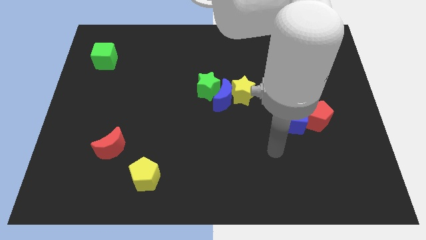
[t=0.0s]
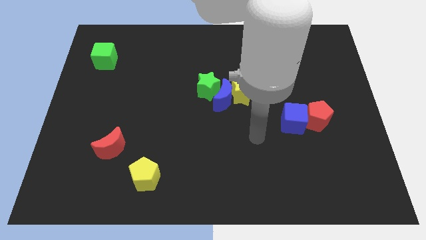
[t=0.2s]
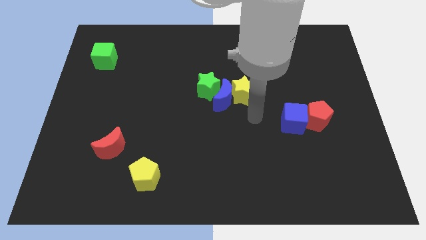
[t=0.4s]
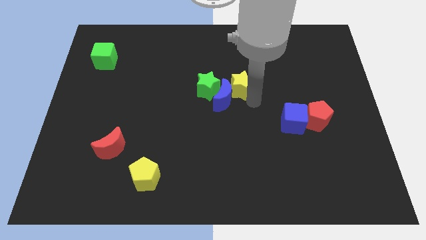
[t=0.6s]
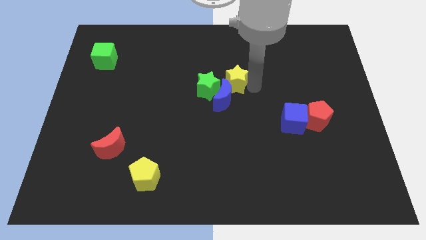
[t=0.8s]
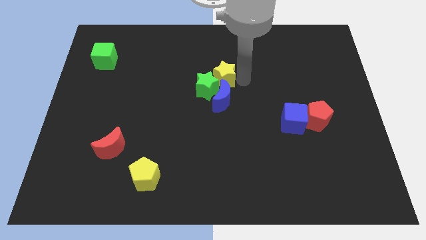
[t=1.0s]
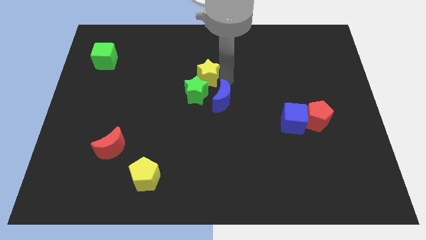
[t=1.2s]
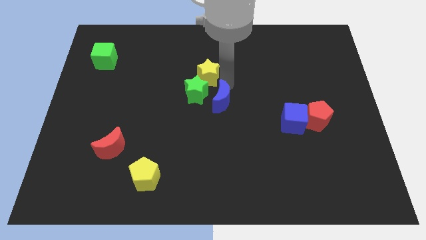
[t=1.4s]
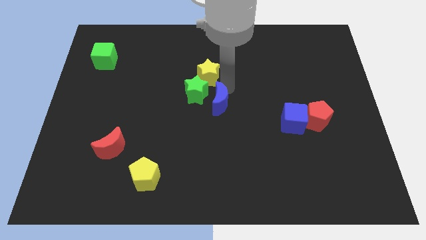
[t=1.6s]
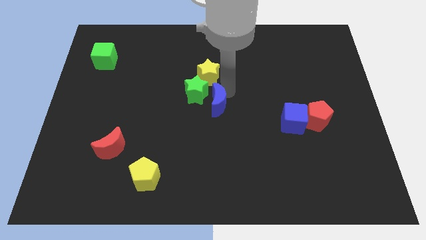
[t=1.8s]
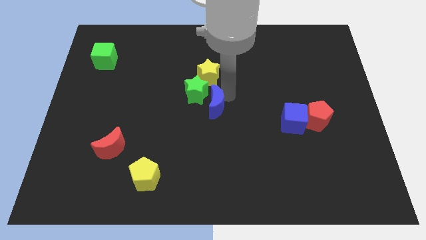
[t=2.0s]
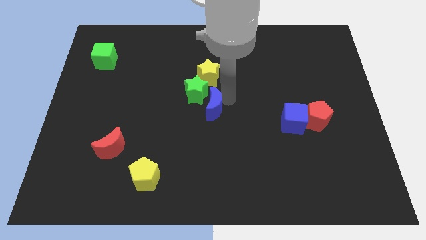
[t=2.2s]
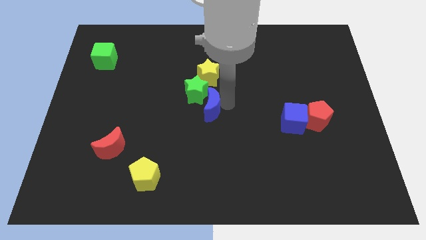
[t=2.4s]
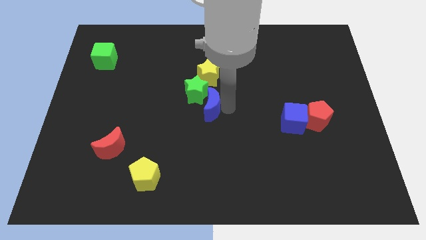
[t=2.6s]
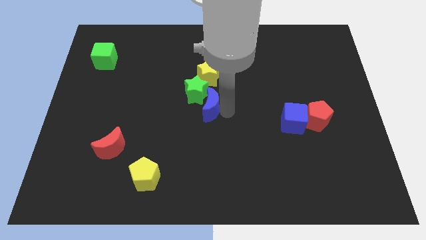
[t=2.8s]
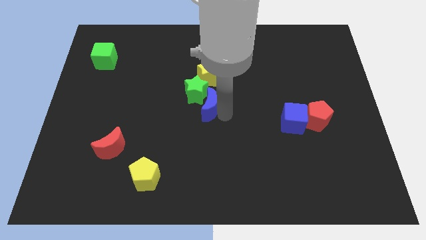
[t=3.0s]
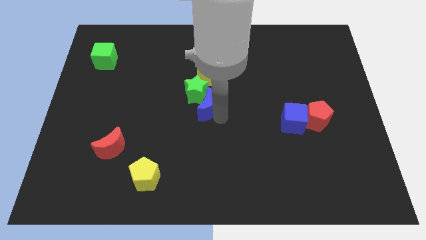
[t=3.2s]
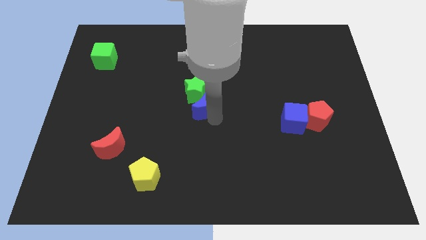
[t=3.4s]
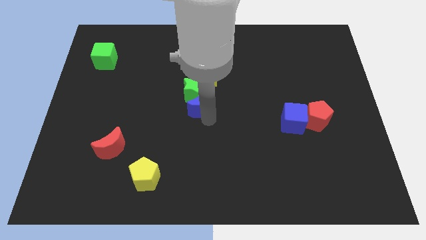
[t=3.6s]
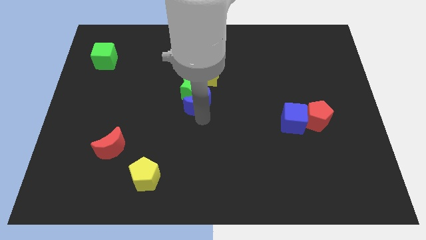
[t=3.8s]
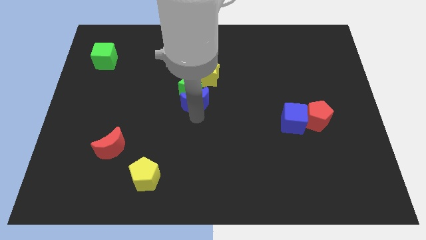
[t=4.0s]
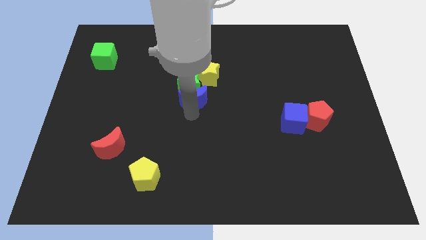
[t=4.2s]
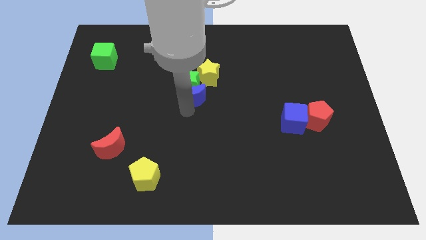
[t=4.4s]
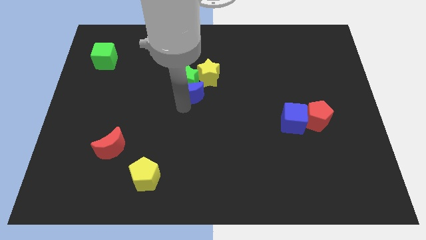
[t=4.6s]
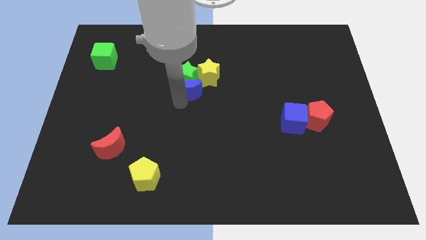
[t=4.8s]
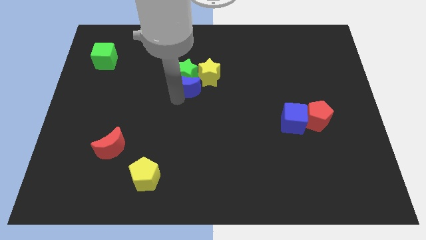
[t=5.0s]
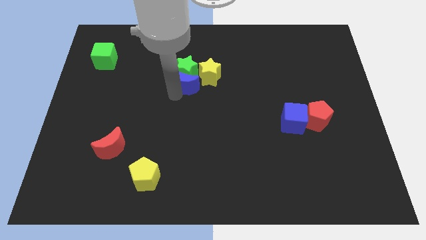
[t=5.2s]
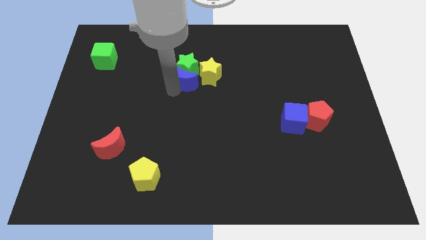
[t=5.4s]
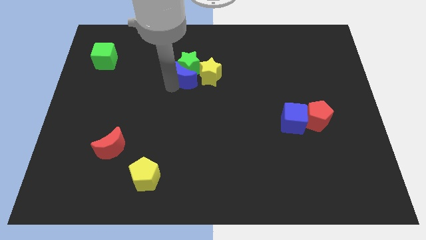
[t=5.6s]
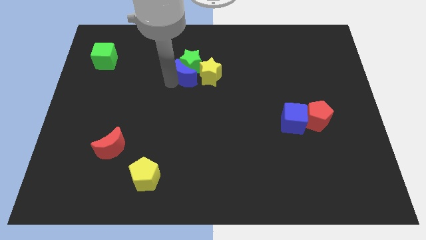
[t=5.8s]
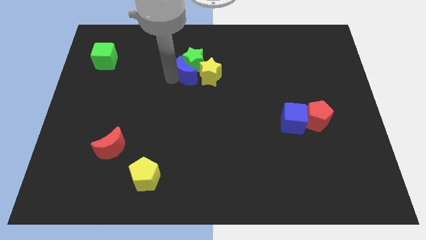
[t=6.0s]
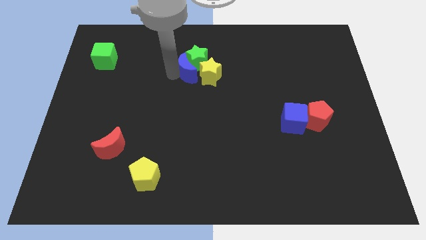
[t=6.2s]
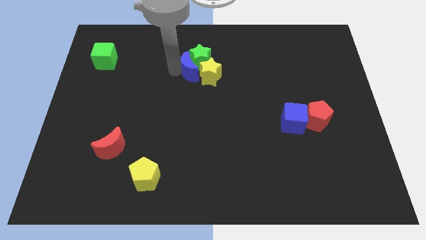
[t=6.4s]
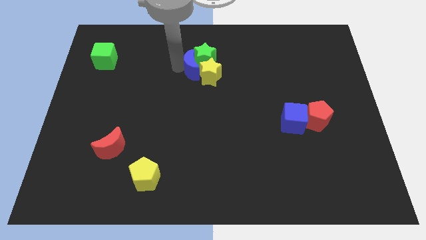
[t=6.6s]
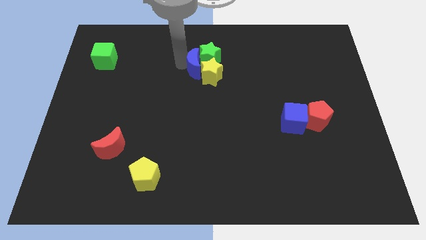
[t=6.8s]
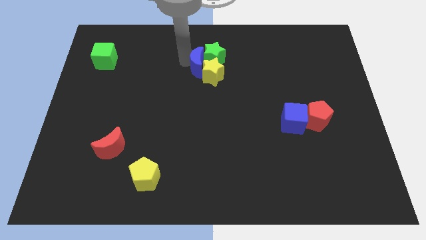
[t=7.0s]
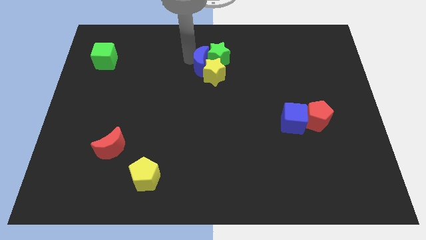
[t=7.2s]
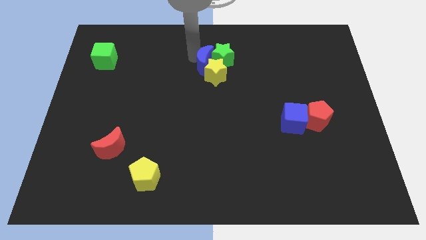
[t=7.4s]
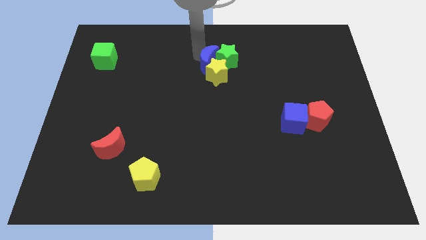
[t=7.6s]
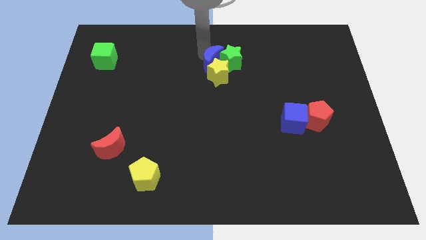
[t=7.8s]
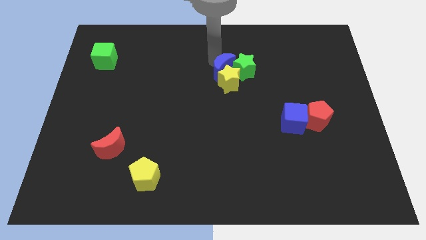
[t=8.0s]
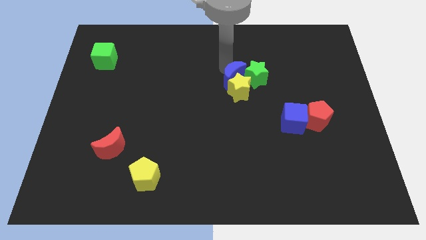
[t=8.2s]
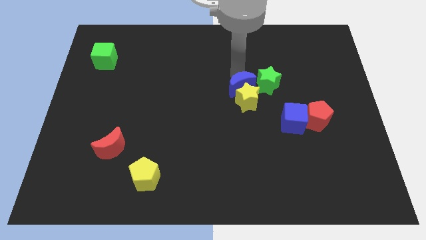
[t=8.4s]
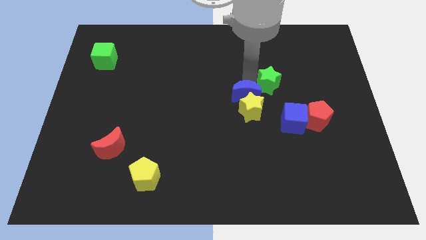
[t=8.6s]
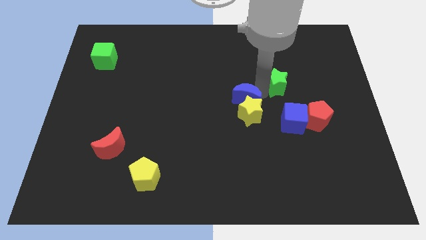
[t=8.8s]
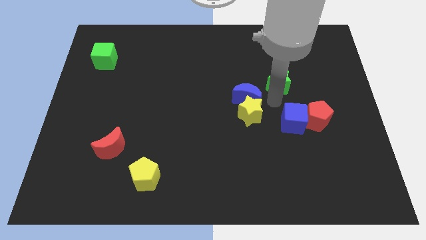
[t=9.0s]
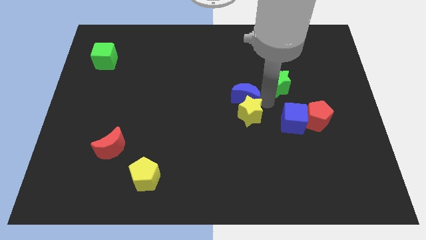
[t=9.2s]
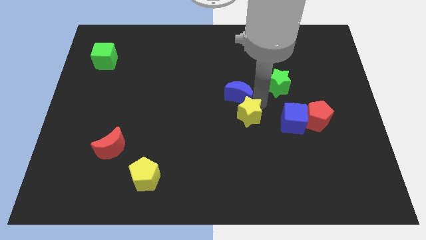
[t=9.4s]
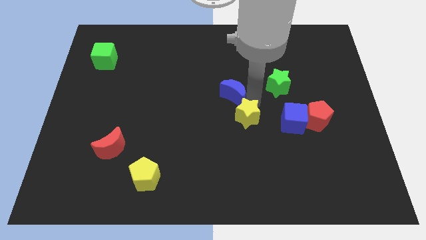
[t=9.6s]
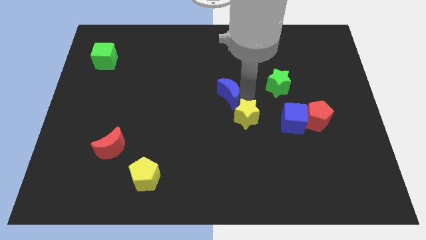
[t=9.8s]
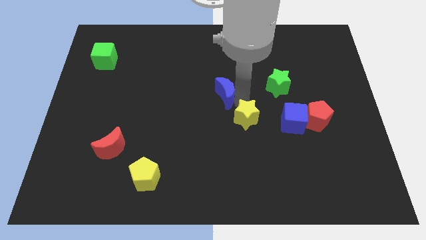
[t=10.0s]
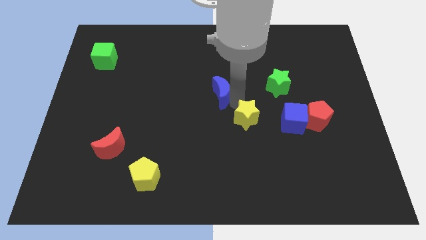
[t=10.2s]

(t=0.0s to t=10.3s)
pull the blue moon apart from the yellow star and green star

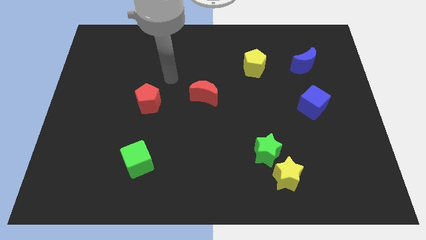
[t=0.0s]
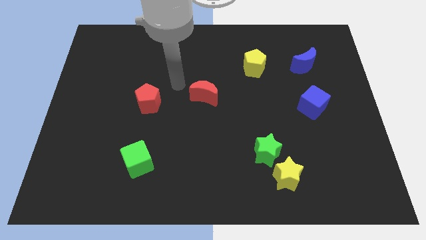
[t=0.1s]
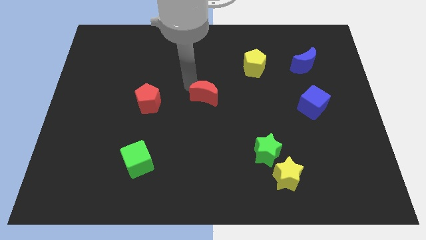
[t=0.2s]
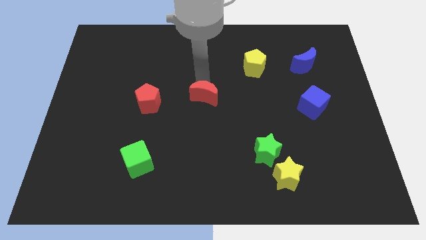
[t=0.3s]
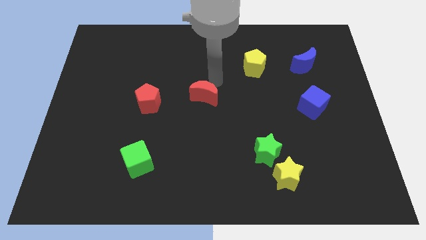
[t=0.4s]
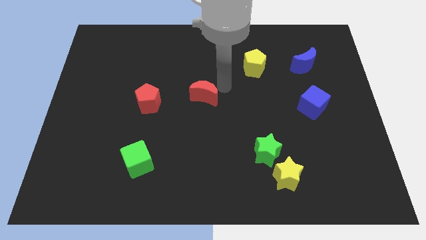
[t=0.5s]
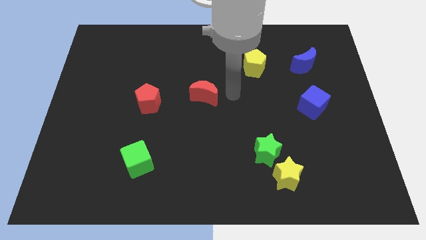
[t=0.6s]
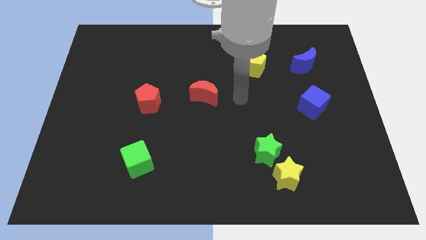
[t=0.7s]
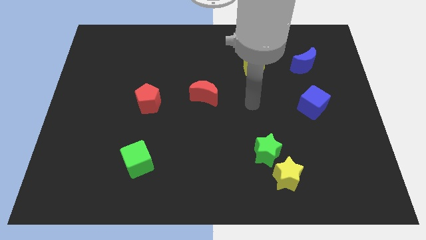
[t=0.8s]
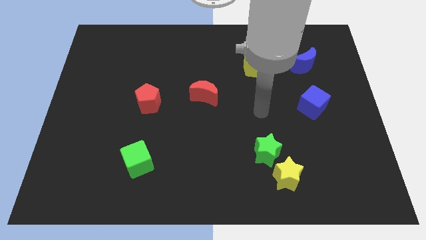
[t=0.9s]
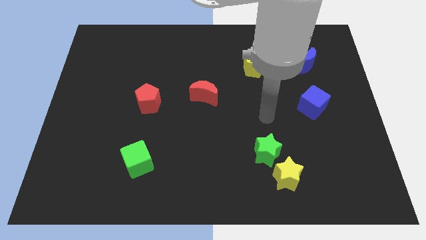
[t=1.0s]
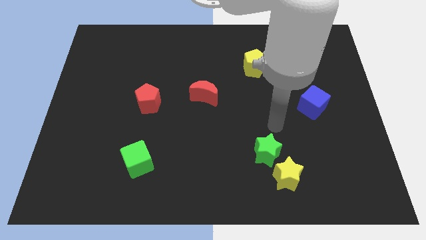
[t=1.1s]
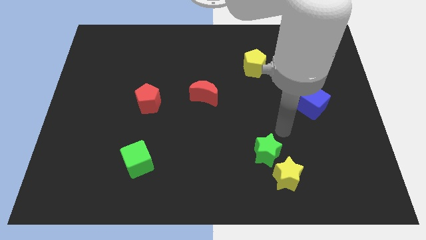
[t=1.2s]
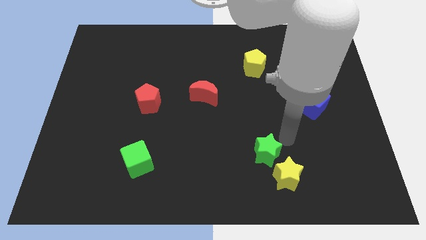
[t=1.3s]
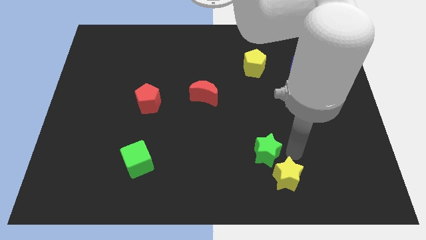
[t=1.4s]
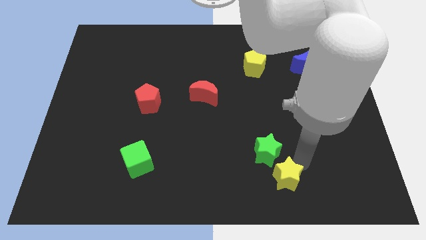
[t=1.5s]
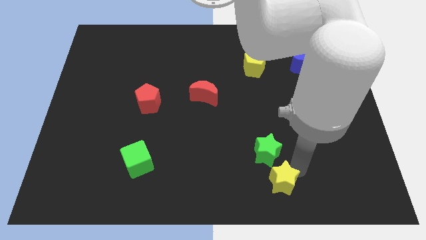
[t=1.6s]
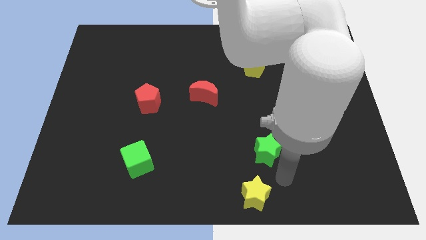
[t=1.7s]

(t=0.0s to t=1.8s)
pull the green star apart from the yellow star

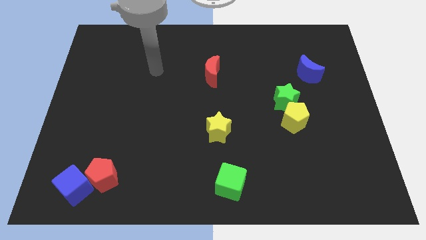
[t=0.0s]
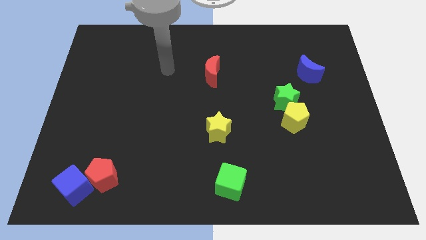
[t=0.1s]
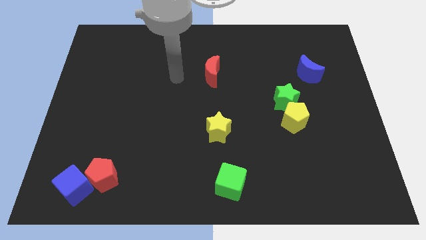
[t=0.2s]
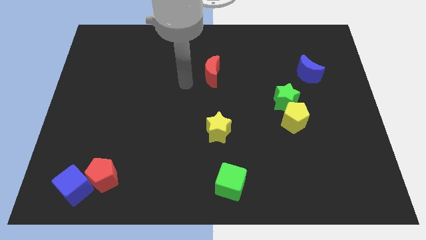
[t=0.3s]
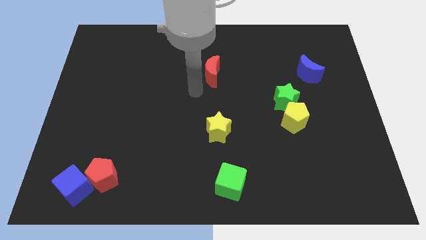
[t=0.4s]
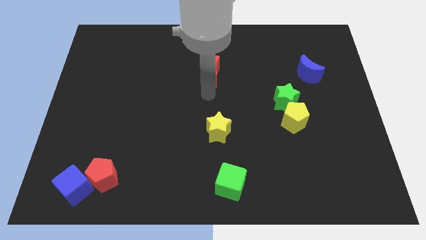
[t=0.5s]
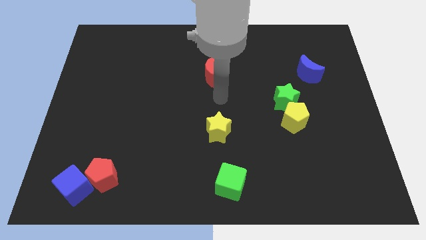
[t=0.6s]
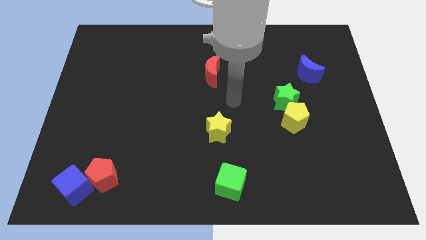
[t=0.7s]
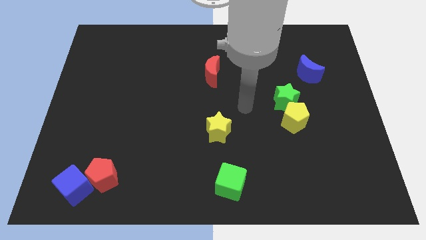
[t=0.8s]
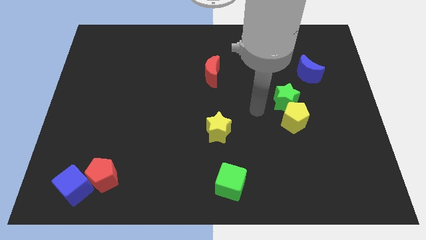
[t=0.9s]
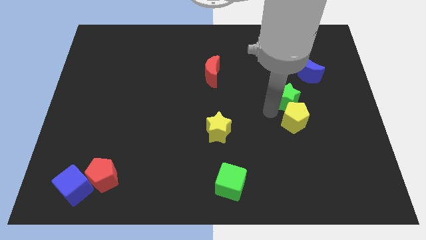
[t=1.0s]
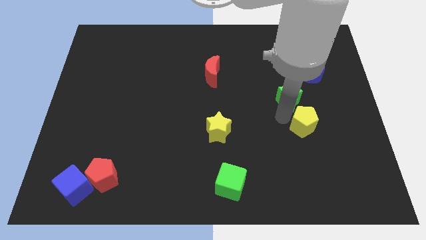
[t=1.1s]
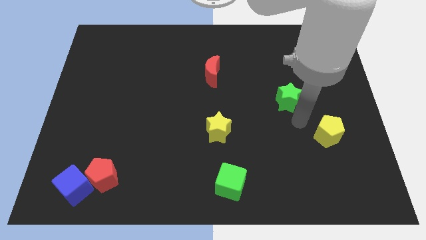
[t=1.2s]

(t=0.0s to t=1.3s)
move the green star away from the yellow pentagon

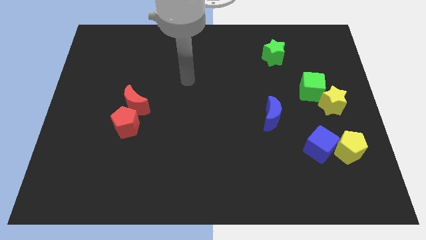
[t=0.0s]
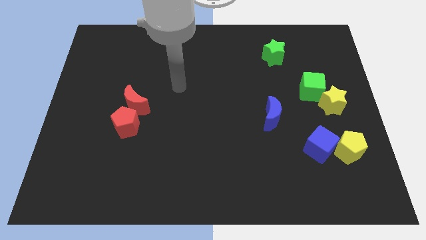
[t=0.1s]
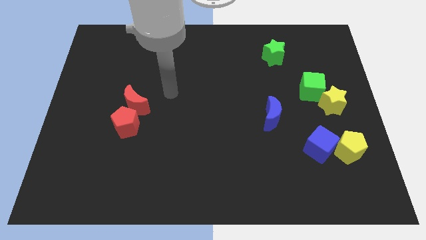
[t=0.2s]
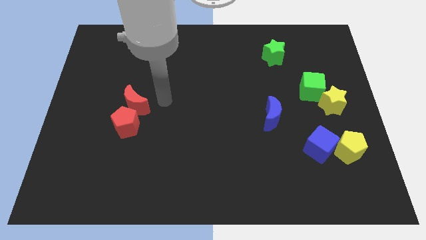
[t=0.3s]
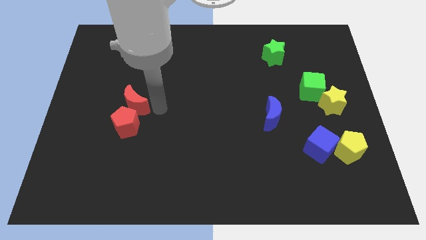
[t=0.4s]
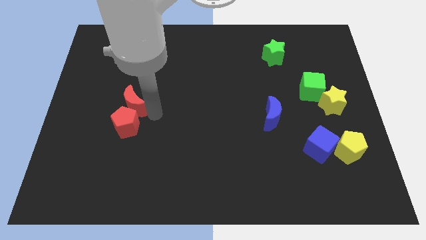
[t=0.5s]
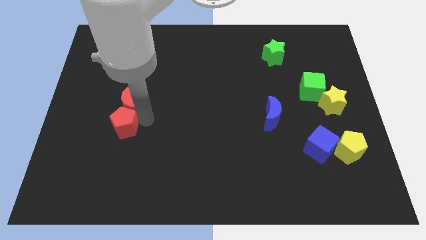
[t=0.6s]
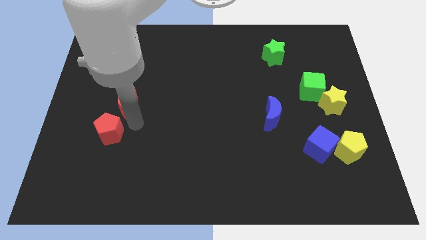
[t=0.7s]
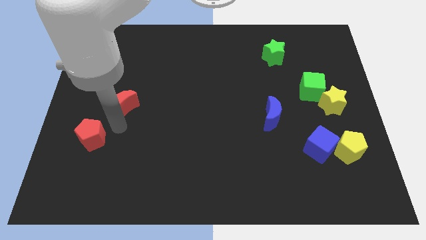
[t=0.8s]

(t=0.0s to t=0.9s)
separate the red moon from the red pentagon

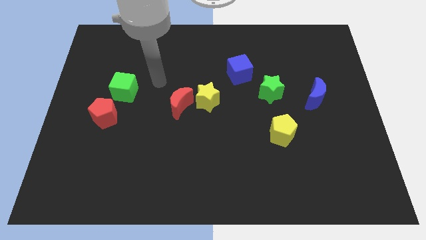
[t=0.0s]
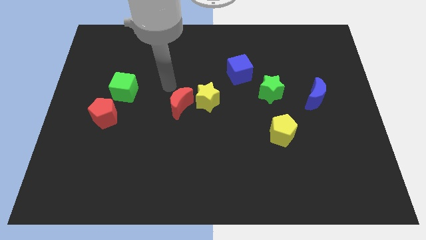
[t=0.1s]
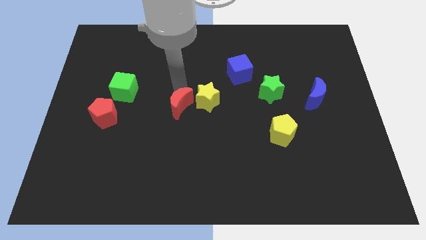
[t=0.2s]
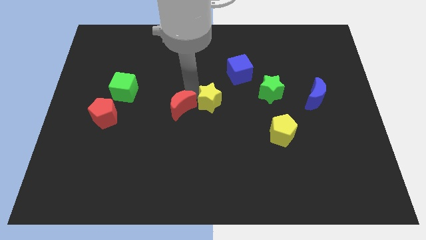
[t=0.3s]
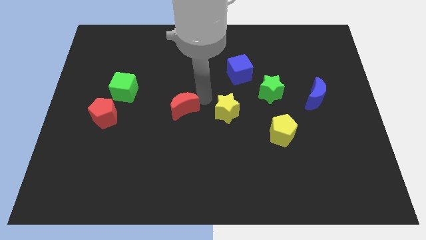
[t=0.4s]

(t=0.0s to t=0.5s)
move the red moon away from the yellow star
